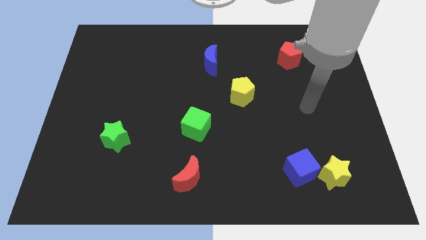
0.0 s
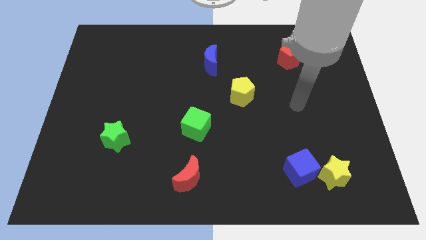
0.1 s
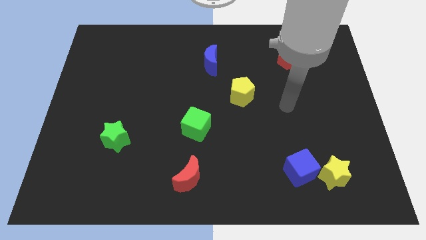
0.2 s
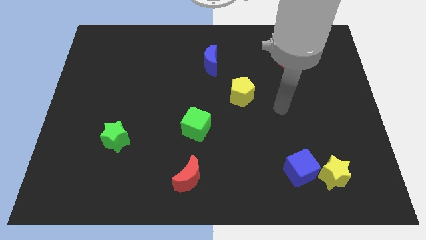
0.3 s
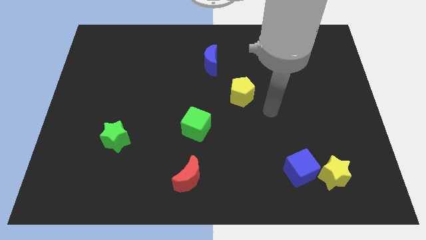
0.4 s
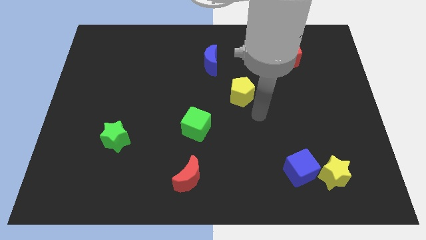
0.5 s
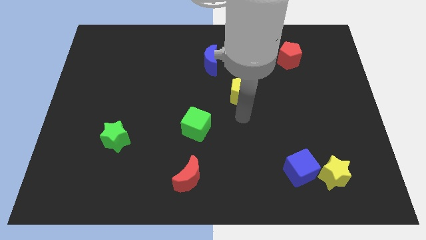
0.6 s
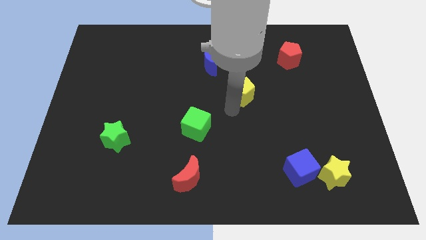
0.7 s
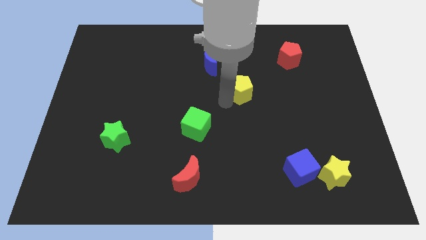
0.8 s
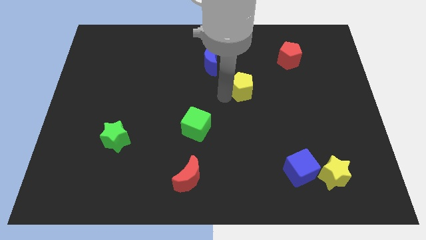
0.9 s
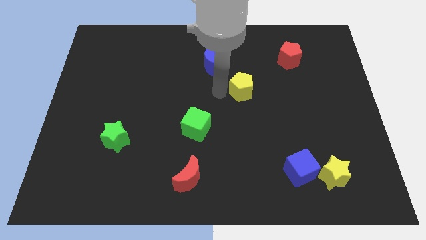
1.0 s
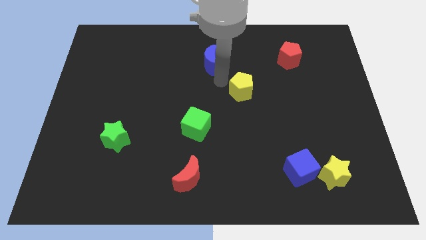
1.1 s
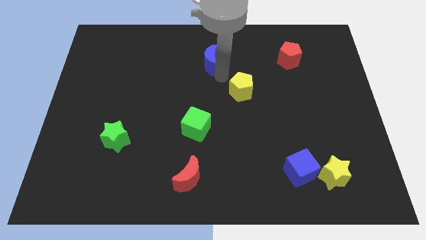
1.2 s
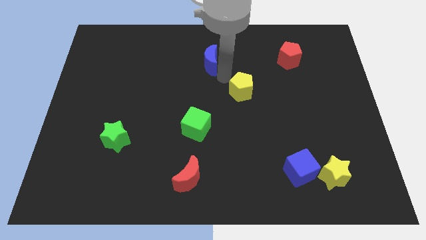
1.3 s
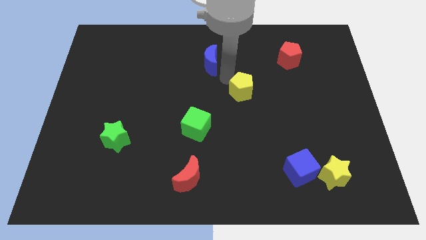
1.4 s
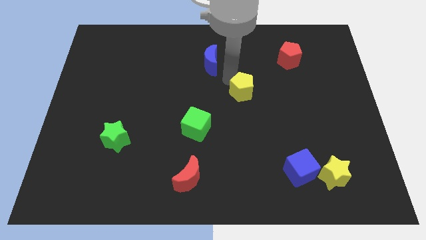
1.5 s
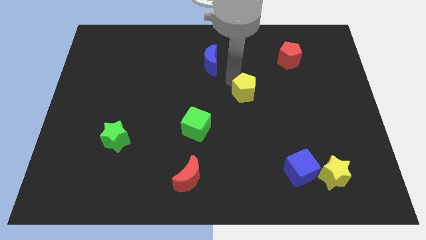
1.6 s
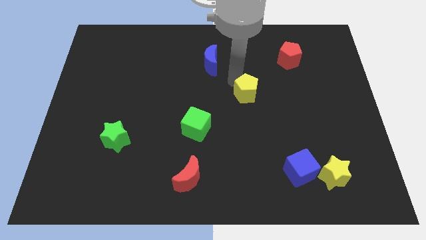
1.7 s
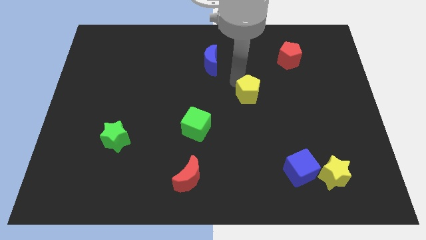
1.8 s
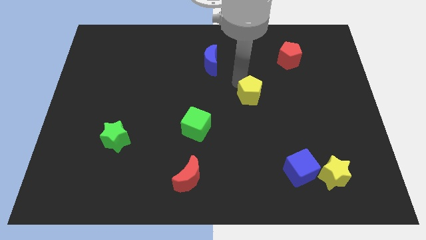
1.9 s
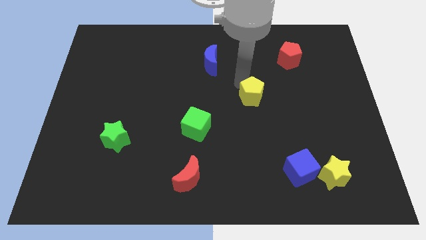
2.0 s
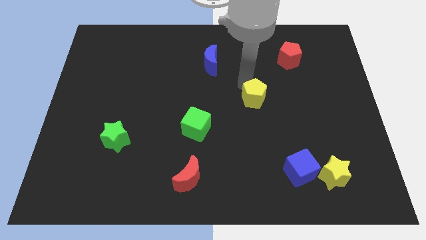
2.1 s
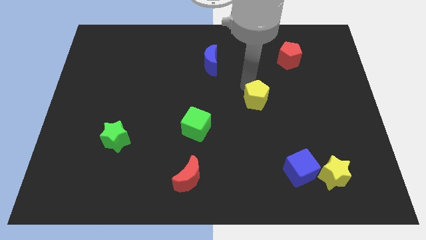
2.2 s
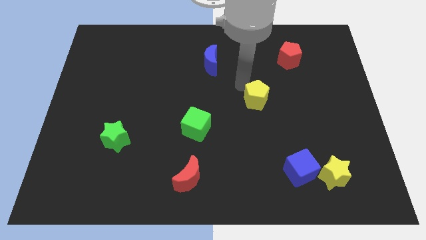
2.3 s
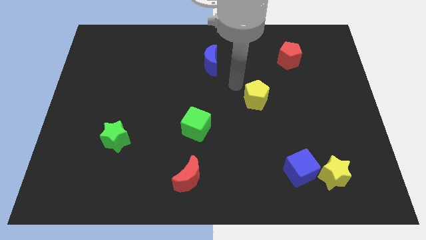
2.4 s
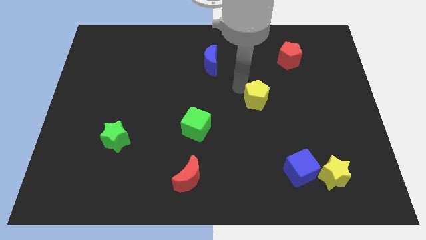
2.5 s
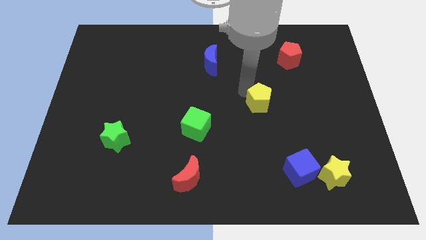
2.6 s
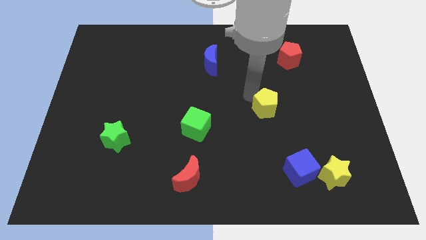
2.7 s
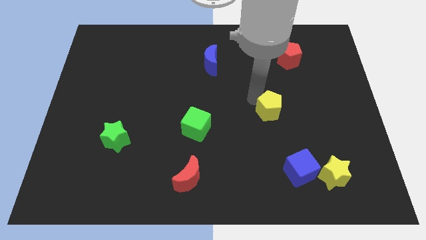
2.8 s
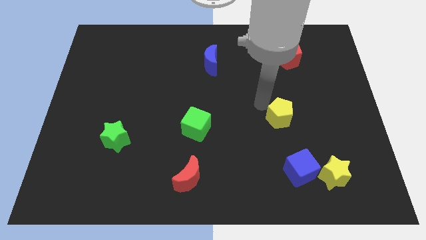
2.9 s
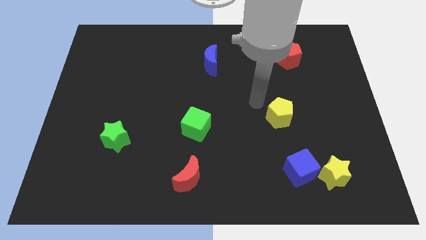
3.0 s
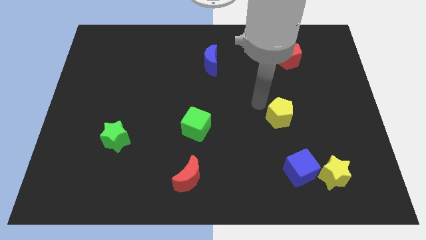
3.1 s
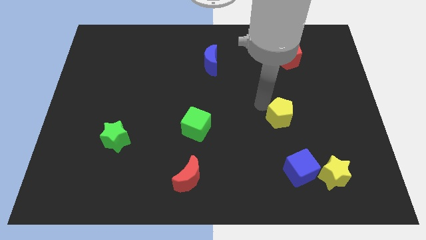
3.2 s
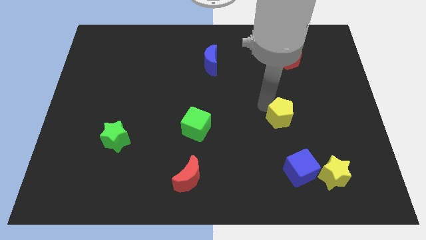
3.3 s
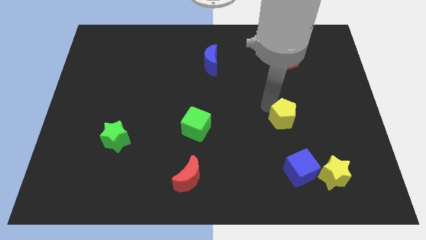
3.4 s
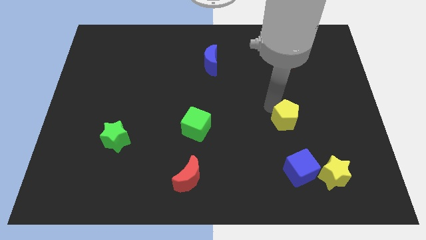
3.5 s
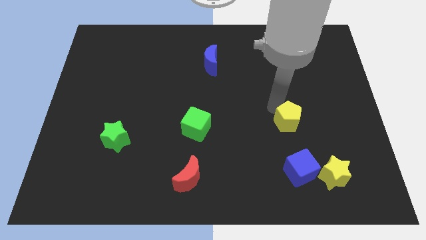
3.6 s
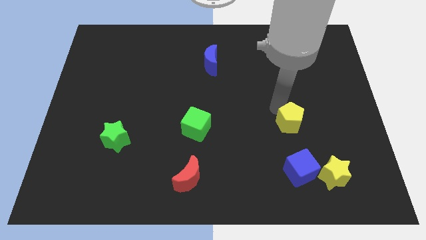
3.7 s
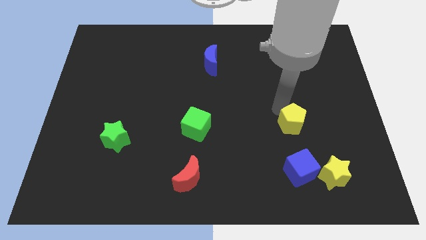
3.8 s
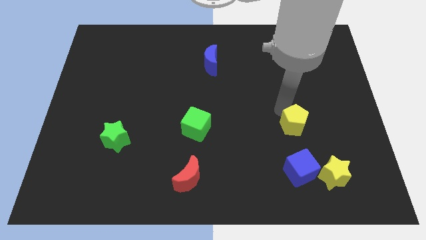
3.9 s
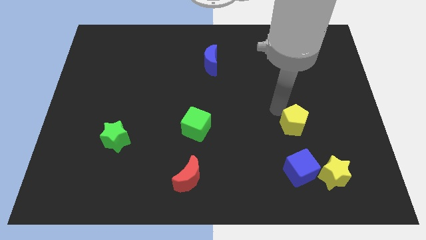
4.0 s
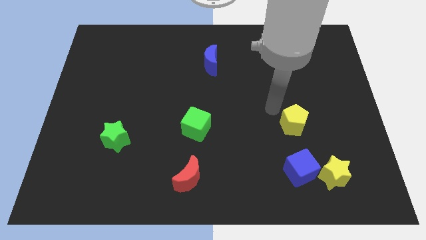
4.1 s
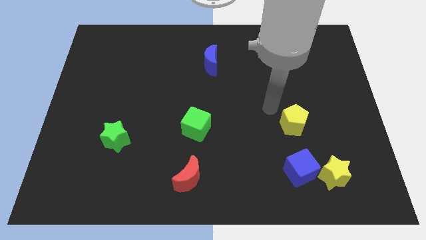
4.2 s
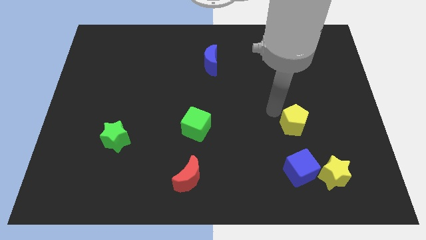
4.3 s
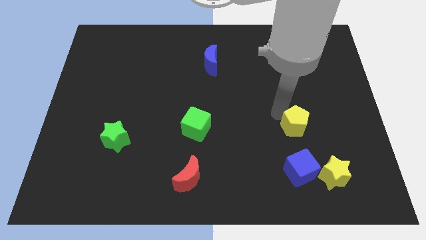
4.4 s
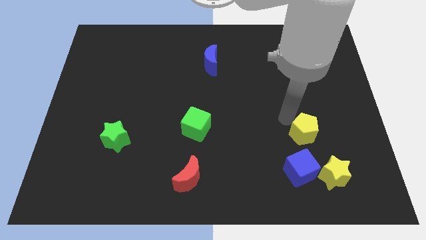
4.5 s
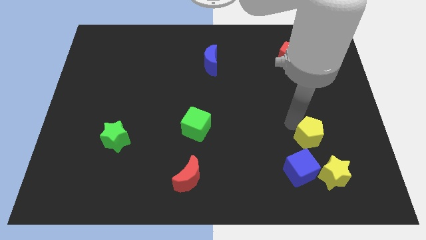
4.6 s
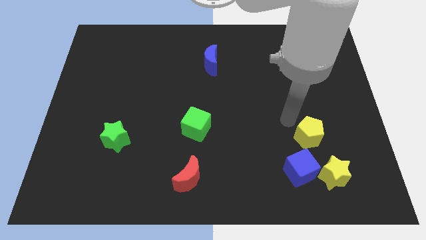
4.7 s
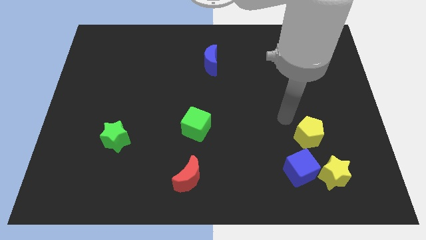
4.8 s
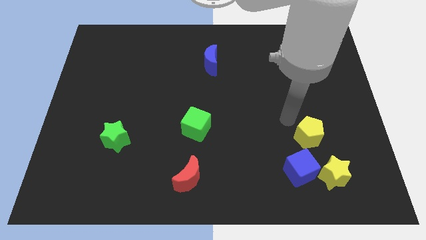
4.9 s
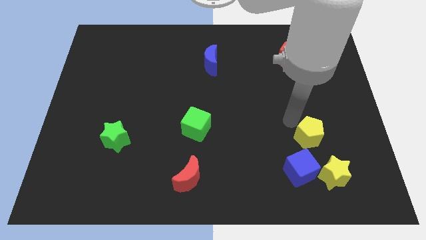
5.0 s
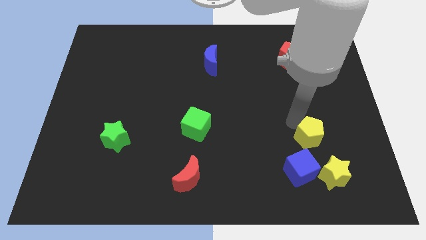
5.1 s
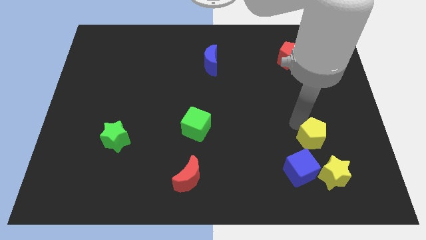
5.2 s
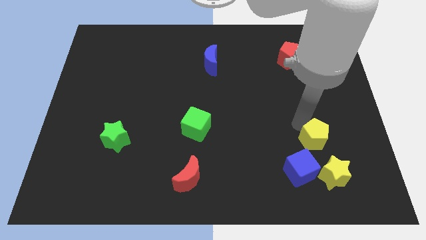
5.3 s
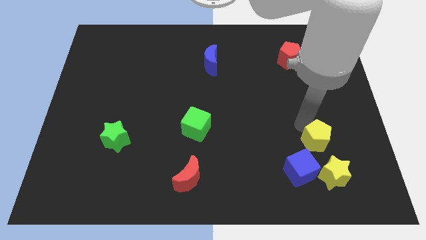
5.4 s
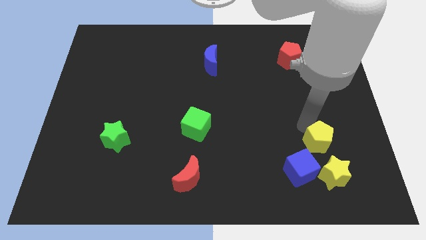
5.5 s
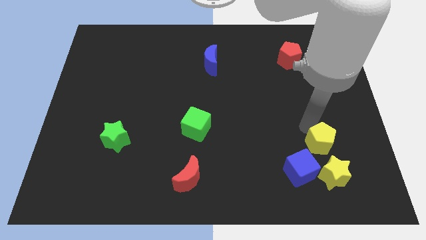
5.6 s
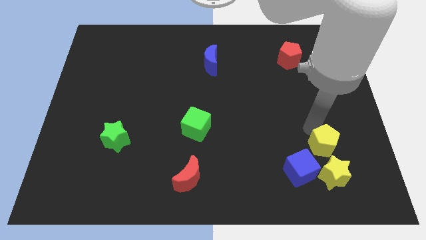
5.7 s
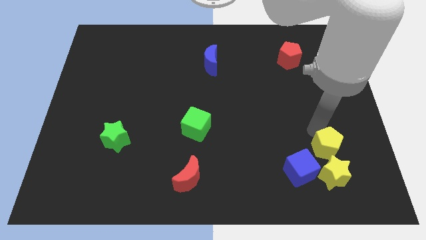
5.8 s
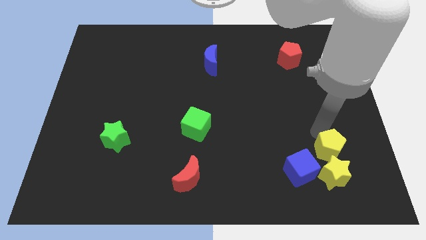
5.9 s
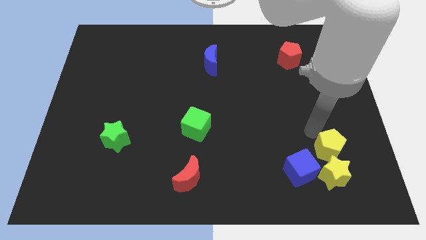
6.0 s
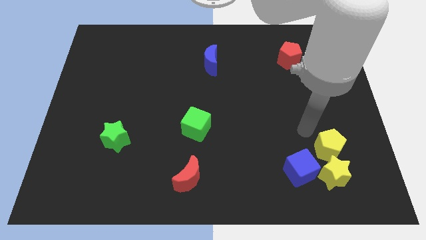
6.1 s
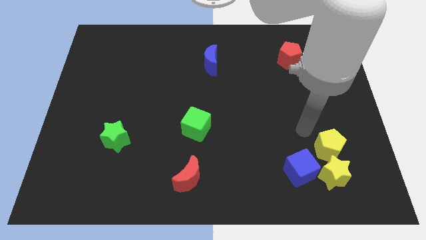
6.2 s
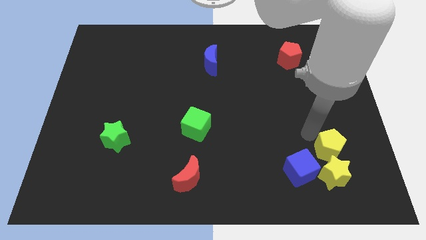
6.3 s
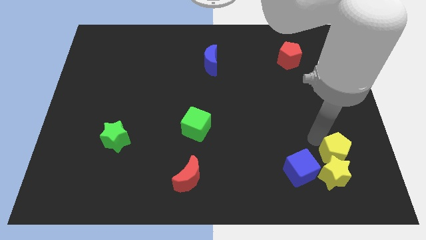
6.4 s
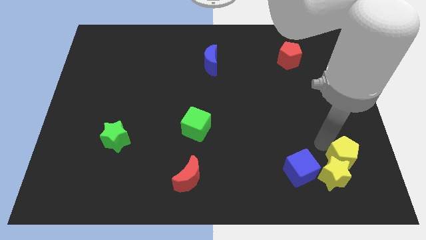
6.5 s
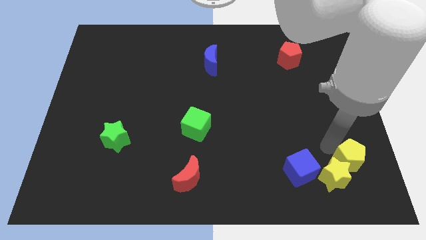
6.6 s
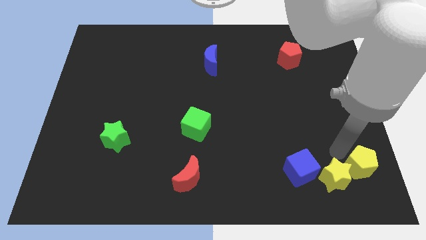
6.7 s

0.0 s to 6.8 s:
put the yellow pentagon to the bottom right
